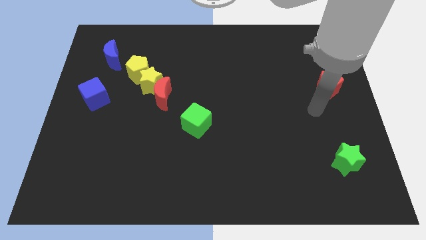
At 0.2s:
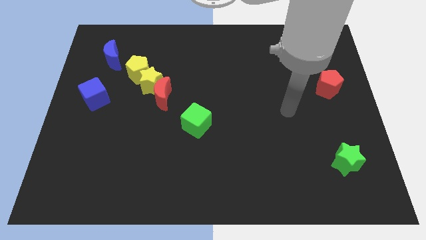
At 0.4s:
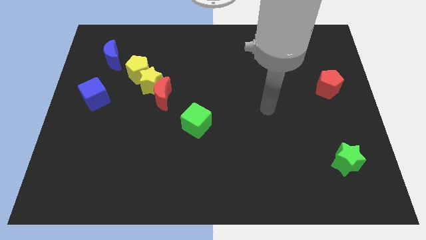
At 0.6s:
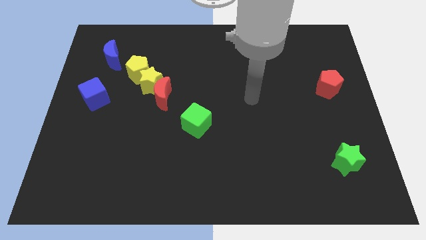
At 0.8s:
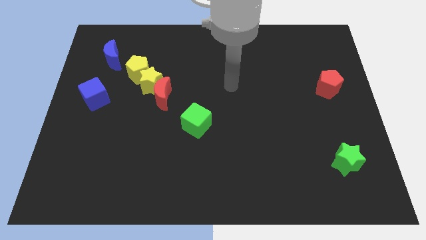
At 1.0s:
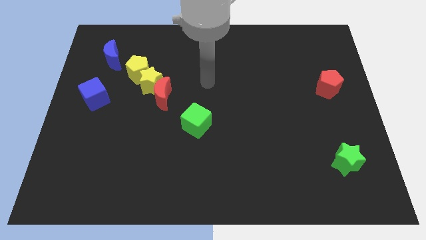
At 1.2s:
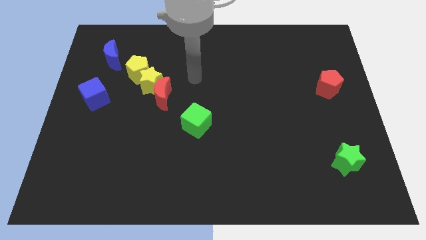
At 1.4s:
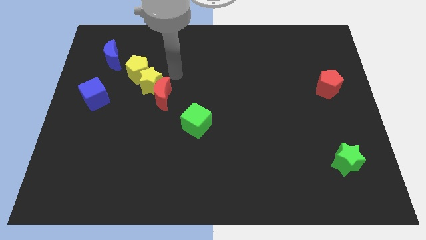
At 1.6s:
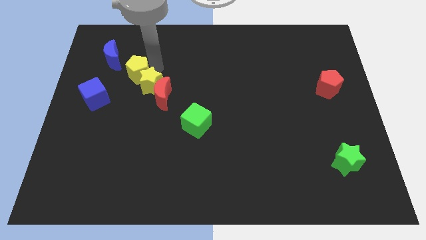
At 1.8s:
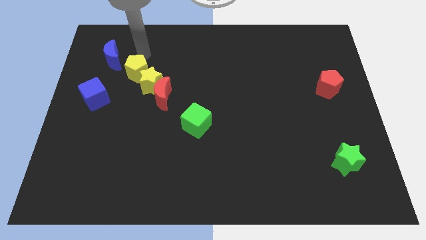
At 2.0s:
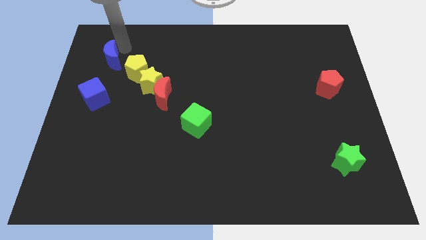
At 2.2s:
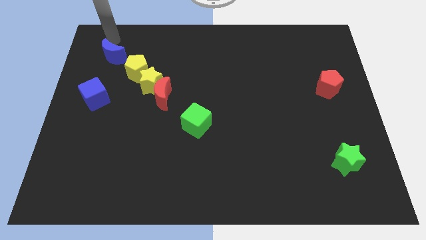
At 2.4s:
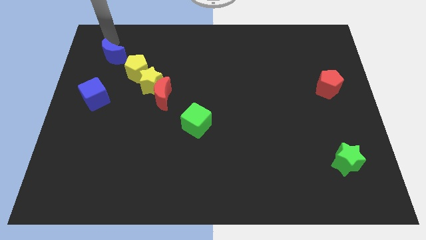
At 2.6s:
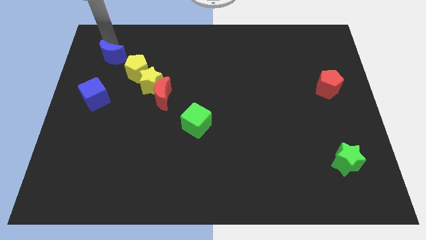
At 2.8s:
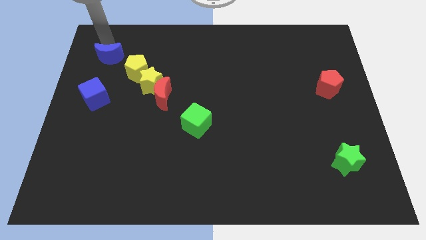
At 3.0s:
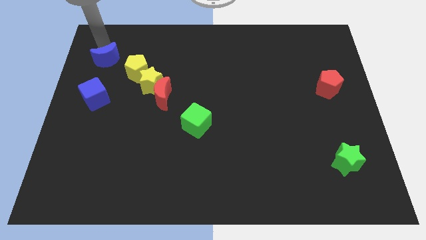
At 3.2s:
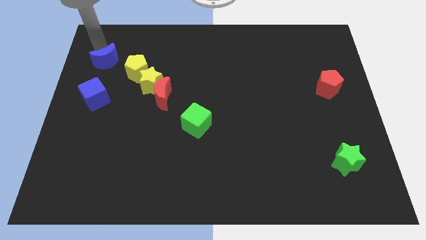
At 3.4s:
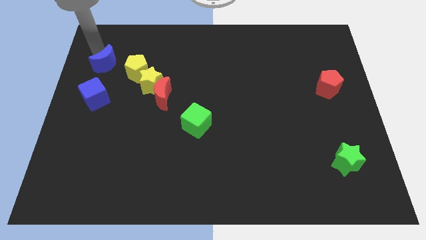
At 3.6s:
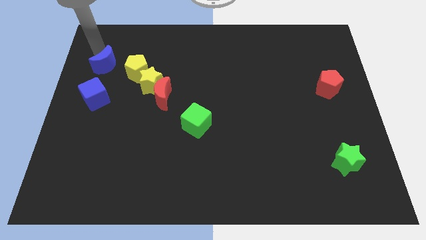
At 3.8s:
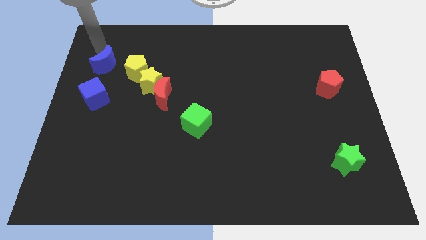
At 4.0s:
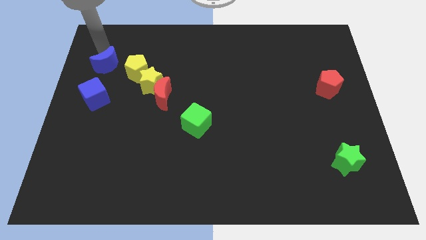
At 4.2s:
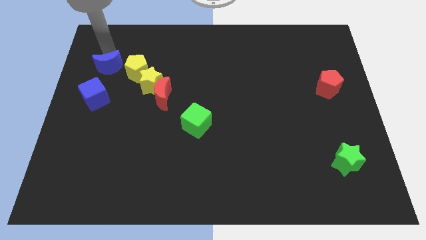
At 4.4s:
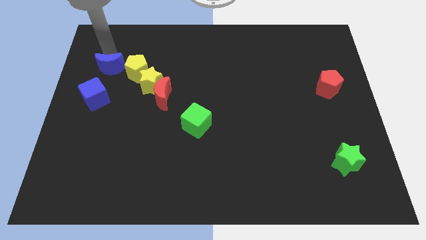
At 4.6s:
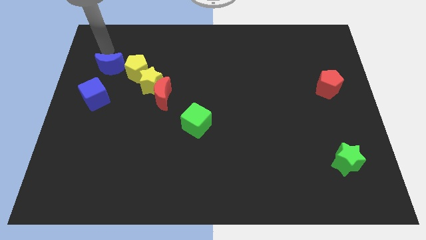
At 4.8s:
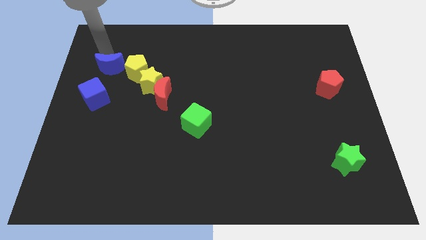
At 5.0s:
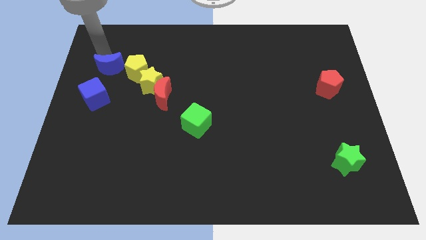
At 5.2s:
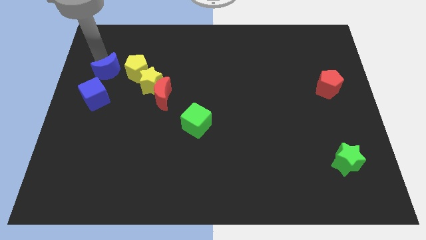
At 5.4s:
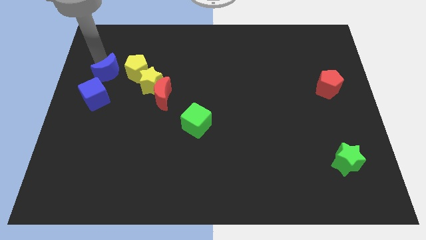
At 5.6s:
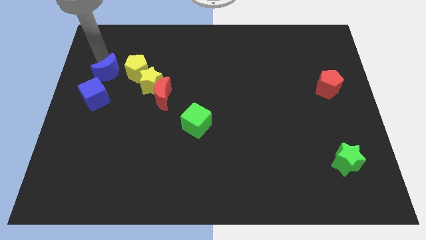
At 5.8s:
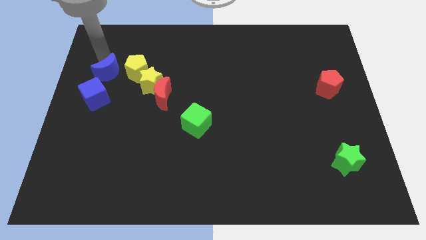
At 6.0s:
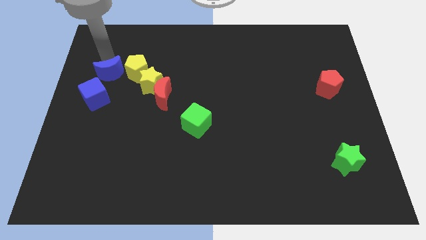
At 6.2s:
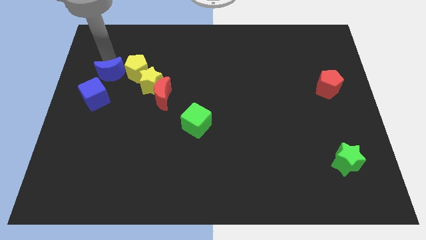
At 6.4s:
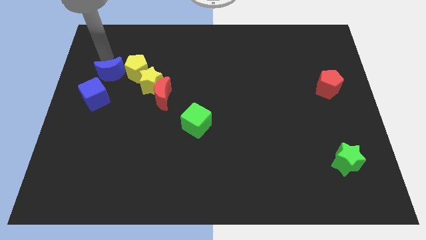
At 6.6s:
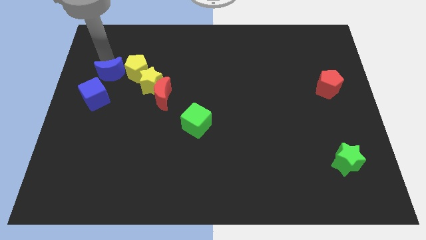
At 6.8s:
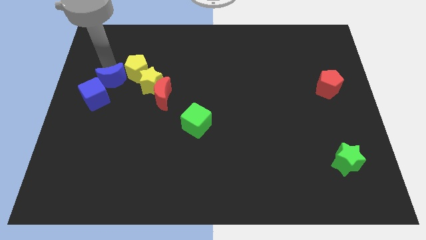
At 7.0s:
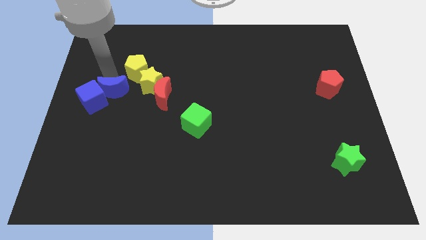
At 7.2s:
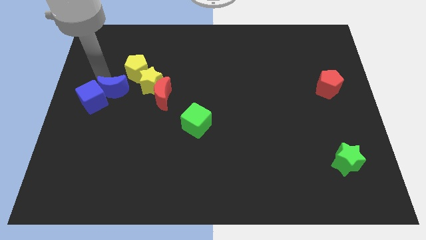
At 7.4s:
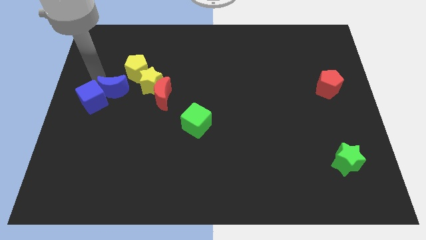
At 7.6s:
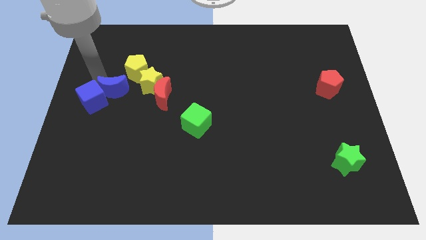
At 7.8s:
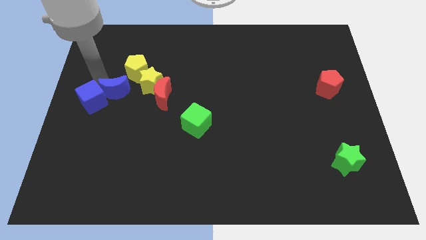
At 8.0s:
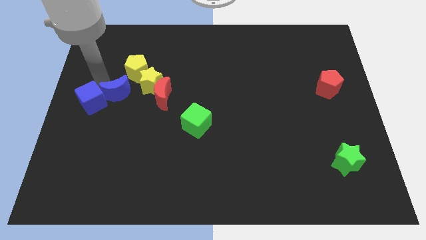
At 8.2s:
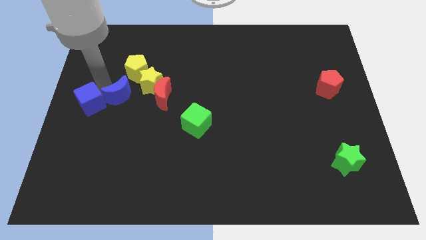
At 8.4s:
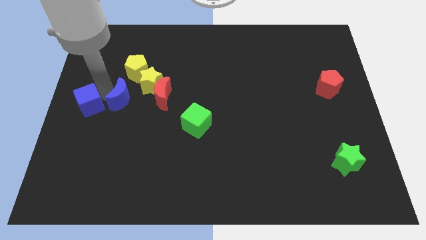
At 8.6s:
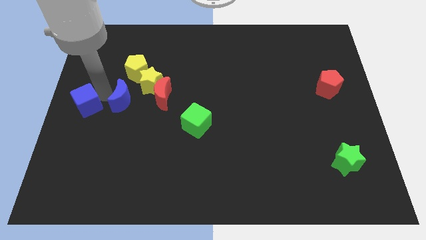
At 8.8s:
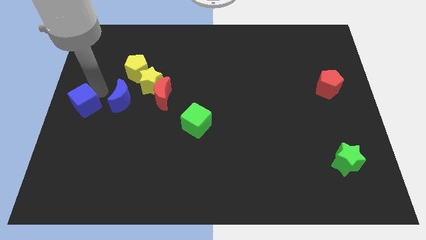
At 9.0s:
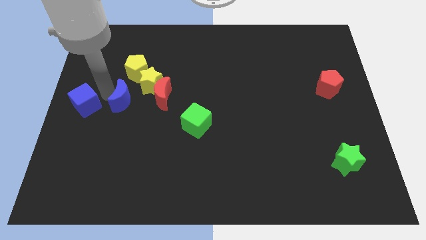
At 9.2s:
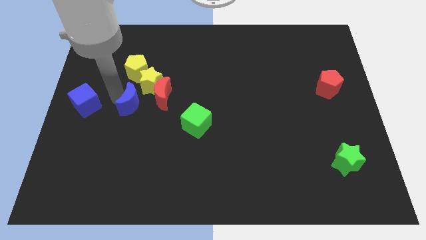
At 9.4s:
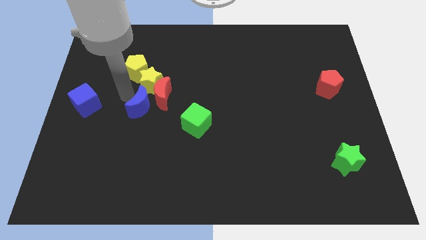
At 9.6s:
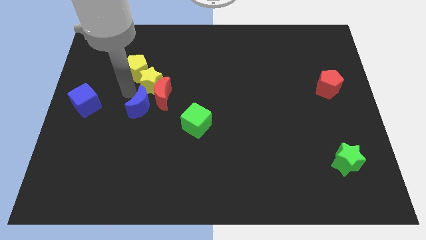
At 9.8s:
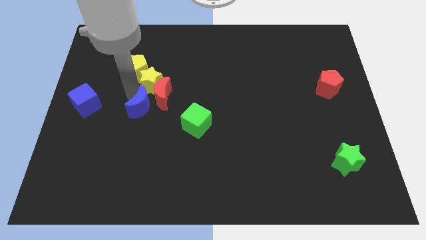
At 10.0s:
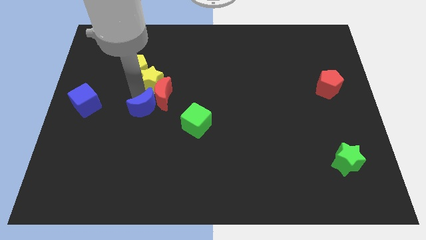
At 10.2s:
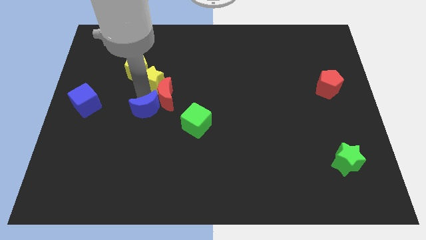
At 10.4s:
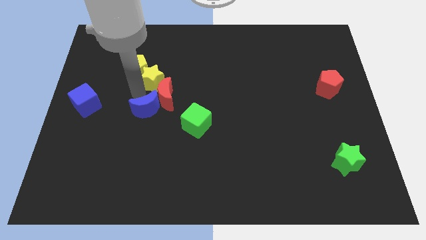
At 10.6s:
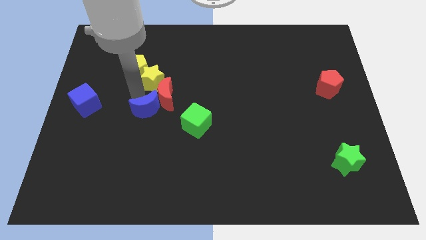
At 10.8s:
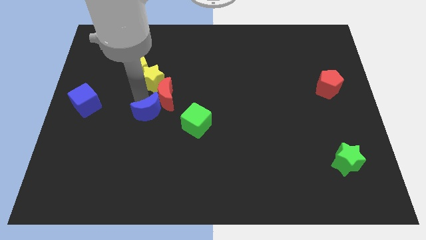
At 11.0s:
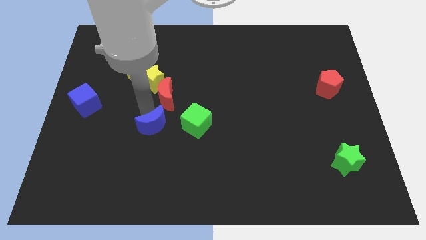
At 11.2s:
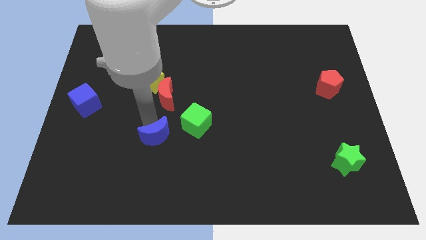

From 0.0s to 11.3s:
push the blue moon diagonally down and to the left of the green cube

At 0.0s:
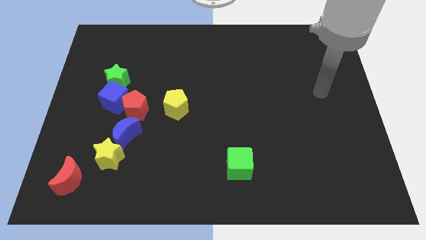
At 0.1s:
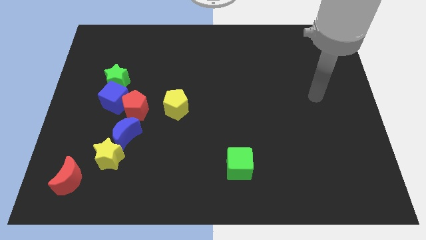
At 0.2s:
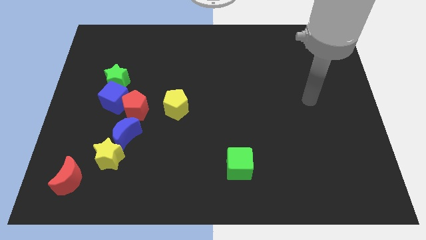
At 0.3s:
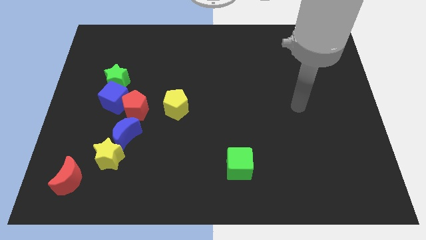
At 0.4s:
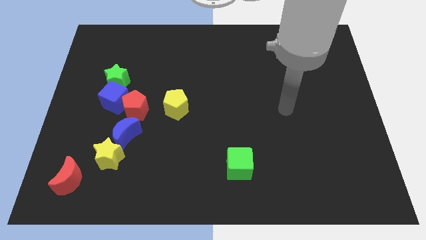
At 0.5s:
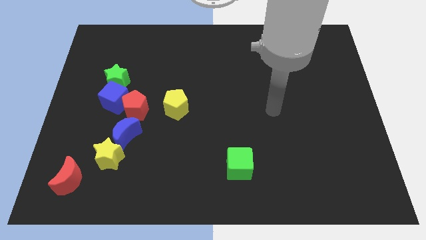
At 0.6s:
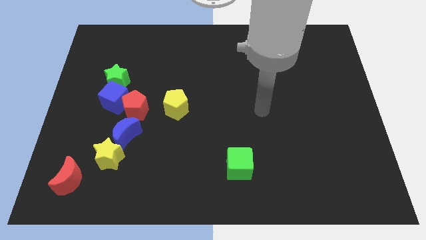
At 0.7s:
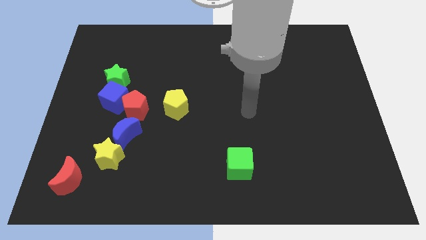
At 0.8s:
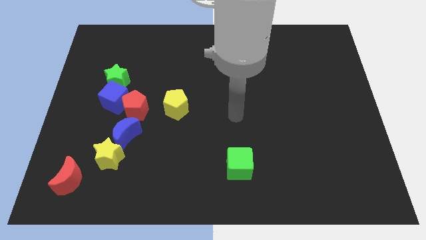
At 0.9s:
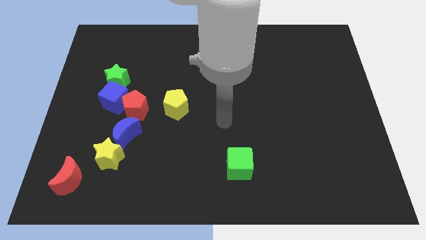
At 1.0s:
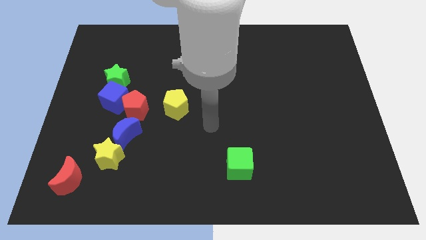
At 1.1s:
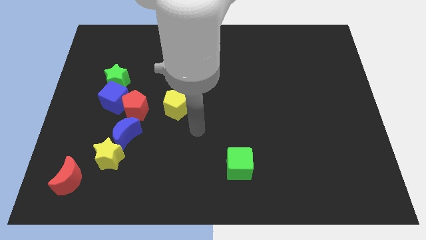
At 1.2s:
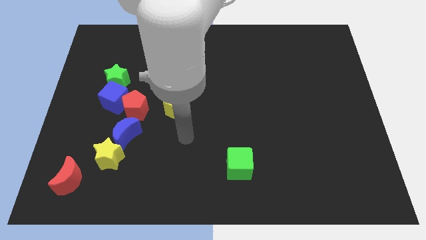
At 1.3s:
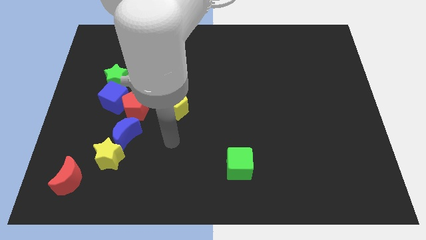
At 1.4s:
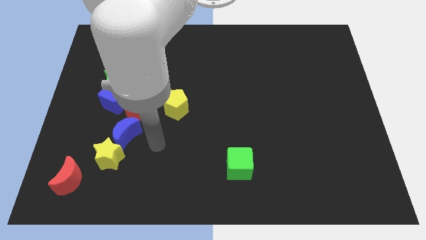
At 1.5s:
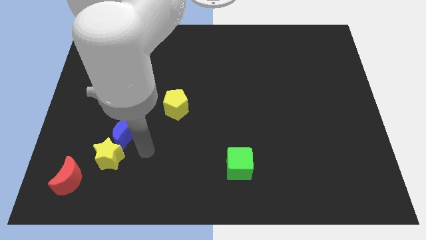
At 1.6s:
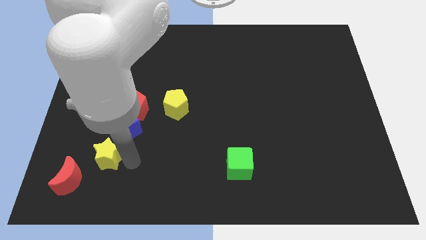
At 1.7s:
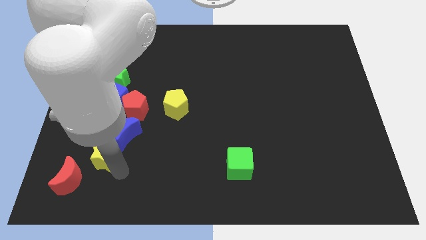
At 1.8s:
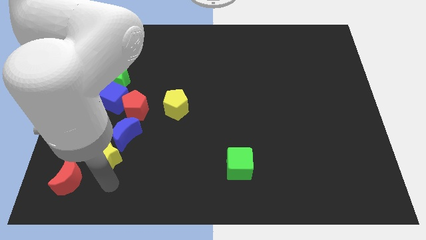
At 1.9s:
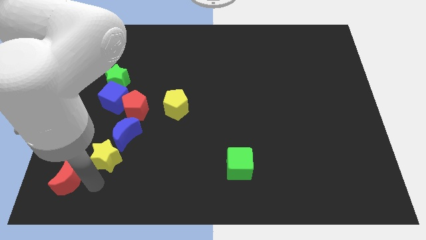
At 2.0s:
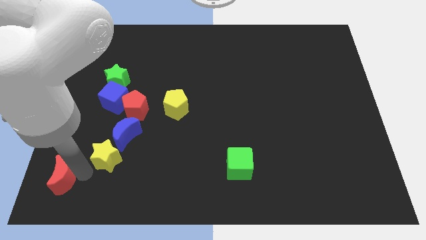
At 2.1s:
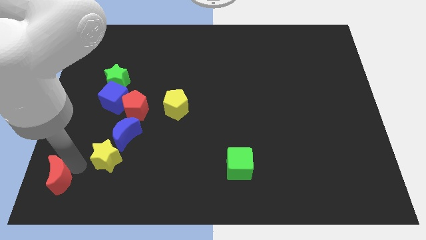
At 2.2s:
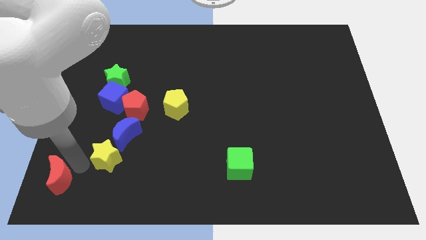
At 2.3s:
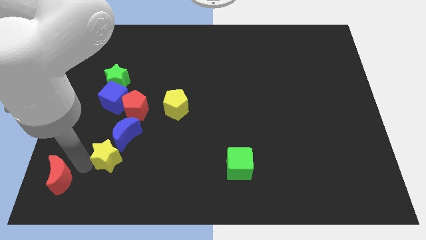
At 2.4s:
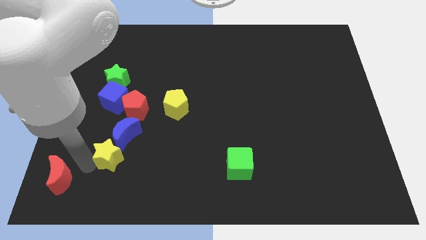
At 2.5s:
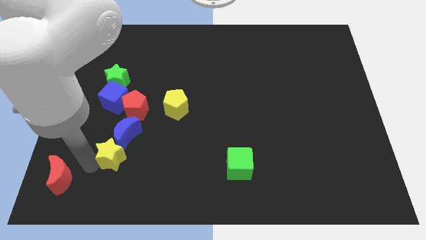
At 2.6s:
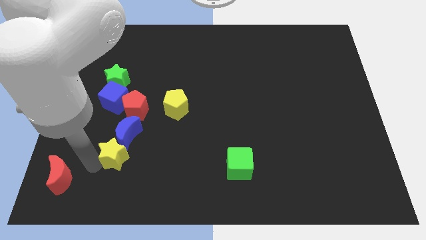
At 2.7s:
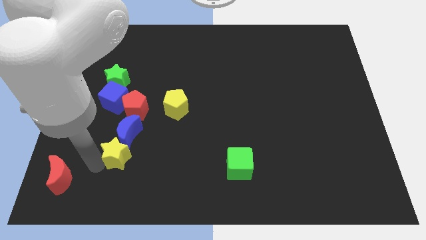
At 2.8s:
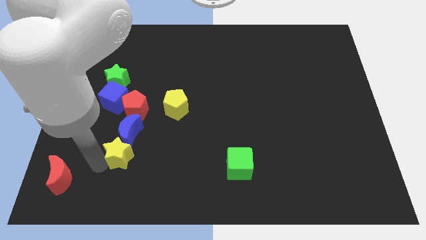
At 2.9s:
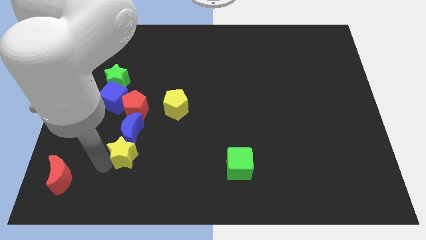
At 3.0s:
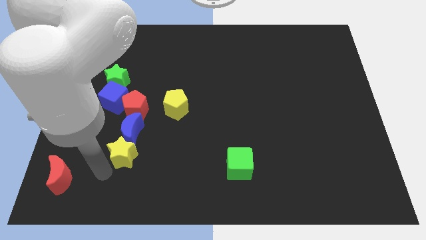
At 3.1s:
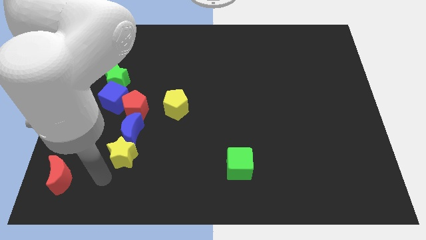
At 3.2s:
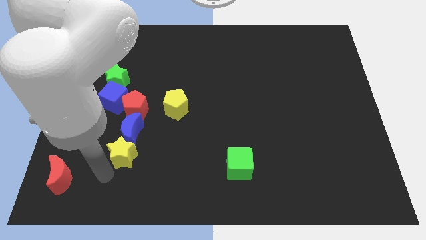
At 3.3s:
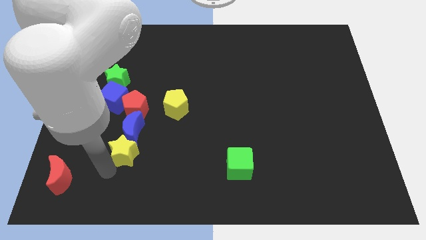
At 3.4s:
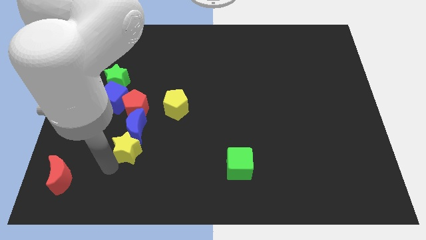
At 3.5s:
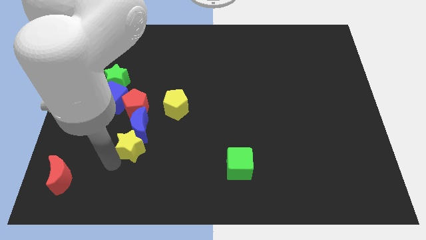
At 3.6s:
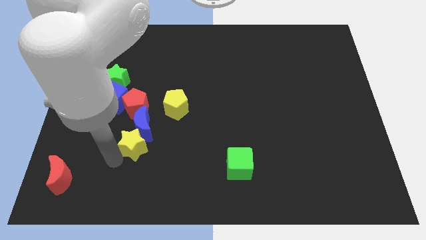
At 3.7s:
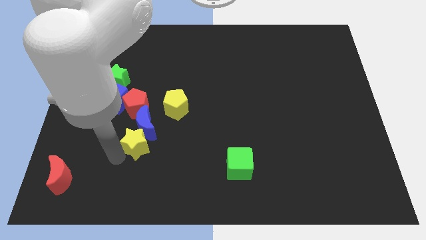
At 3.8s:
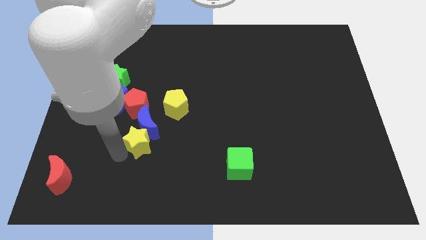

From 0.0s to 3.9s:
put the yellow star diagonally down and to the left of the yellow pentagon
